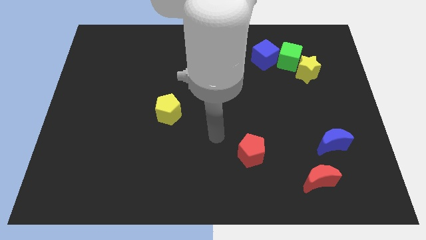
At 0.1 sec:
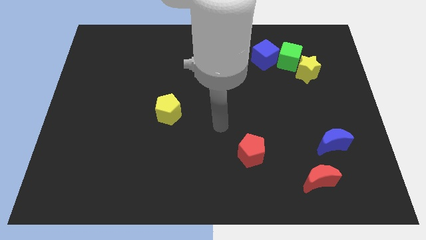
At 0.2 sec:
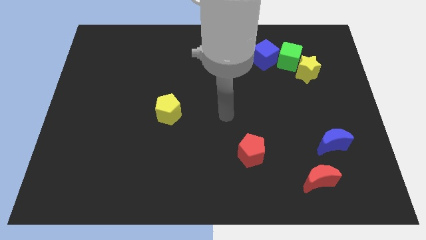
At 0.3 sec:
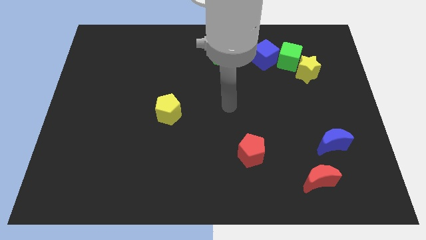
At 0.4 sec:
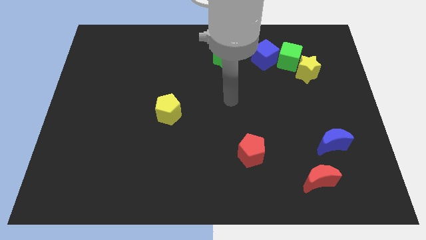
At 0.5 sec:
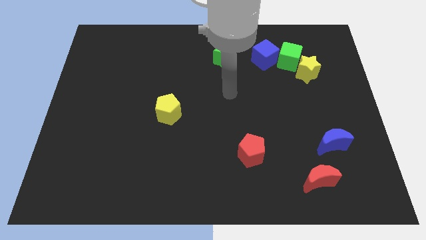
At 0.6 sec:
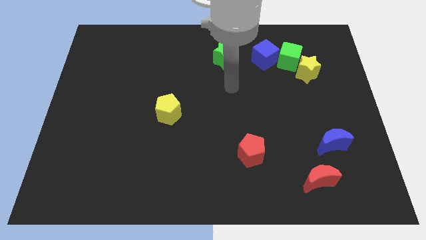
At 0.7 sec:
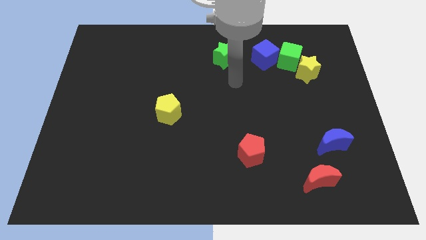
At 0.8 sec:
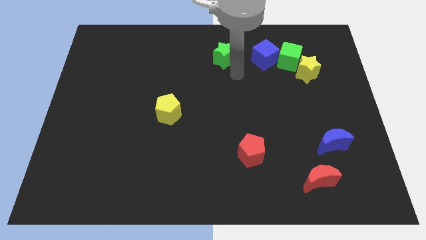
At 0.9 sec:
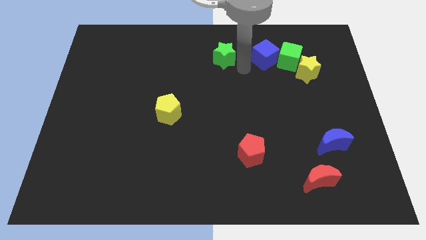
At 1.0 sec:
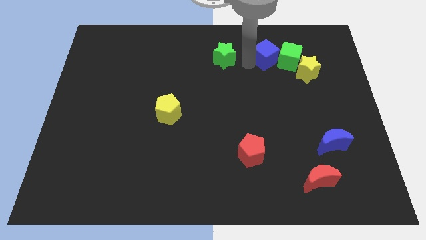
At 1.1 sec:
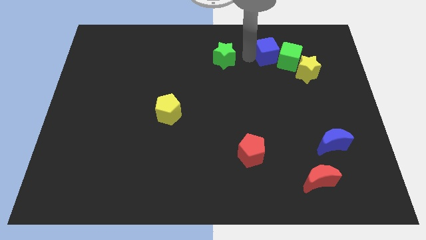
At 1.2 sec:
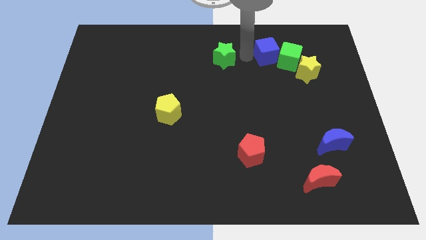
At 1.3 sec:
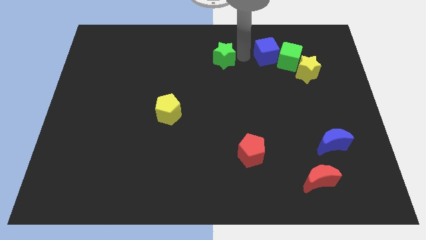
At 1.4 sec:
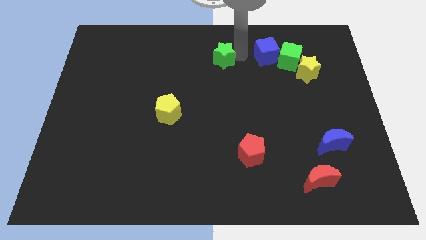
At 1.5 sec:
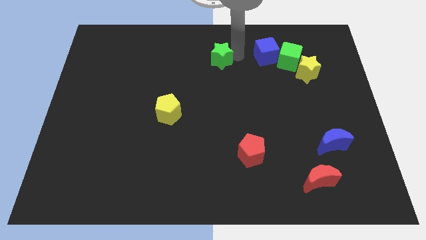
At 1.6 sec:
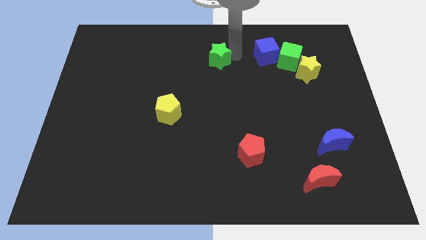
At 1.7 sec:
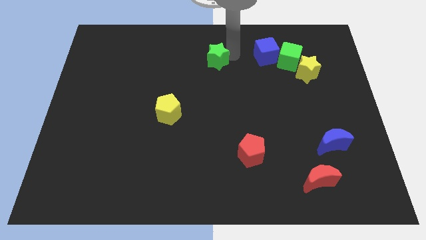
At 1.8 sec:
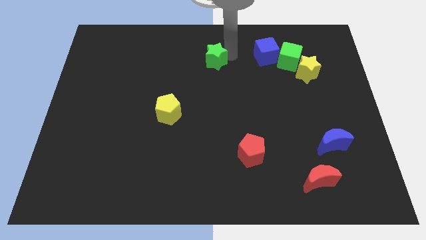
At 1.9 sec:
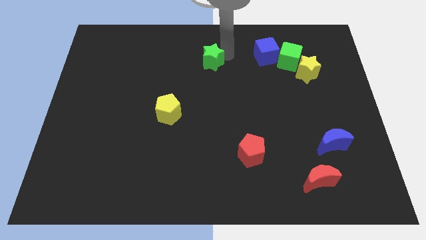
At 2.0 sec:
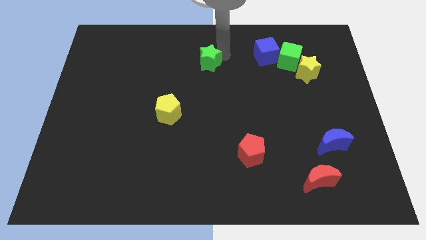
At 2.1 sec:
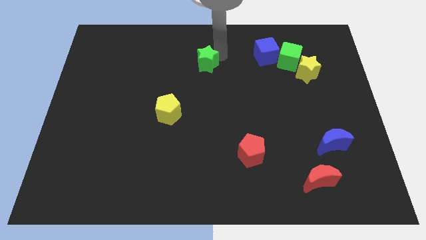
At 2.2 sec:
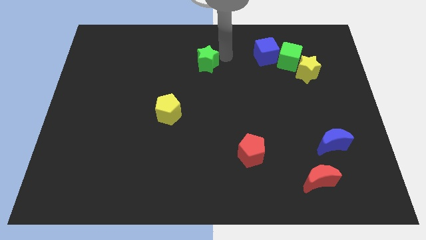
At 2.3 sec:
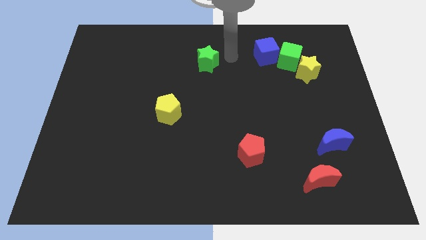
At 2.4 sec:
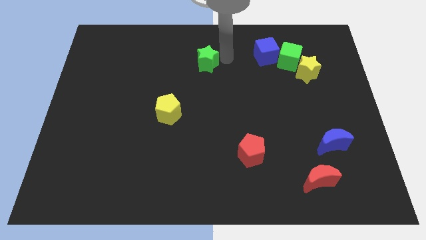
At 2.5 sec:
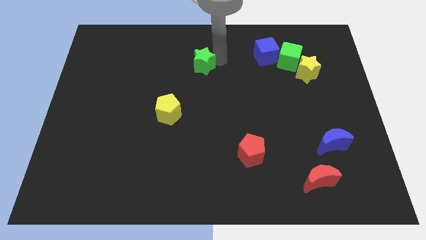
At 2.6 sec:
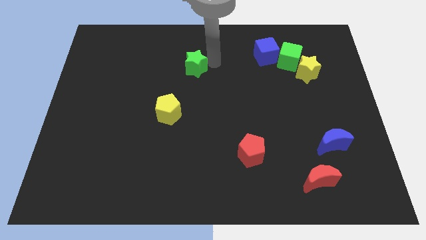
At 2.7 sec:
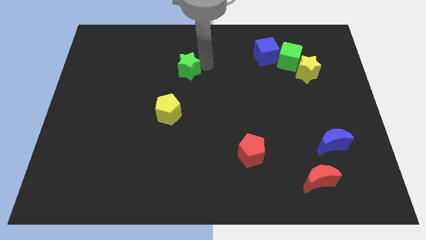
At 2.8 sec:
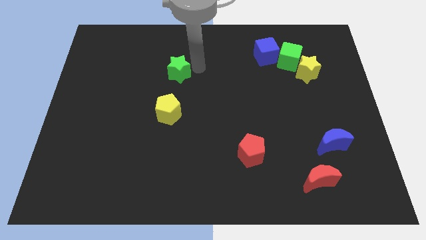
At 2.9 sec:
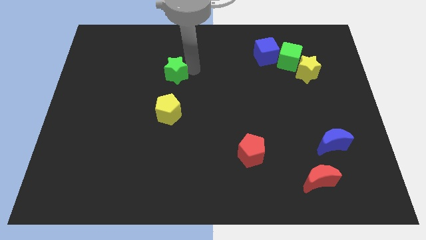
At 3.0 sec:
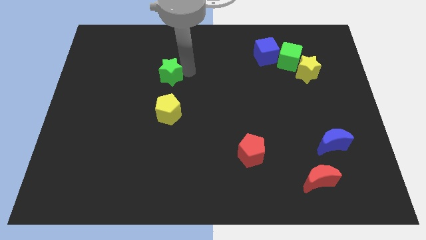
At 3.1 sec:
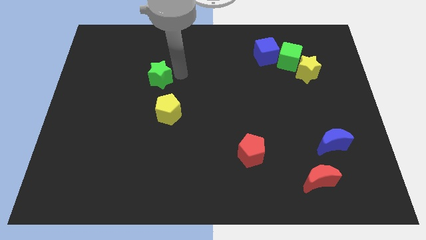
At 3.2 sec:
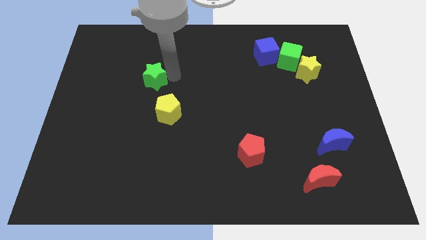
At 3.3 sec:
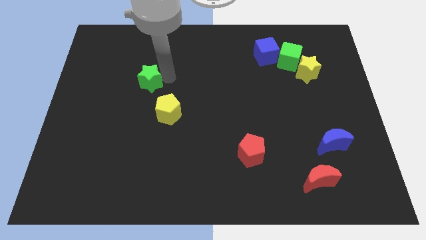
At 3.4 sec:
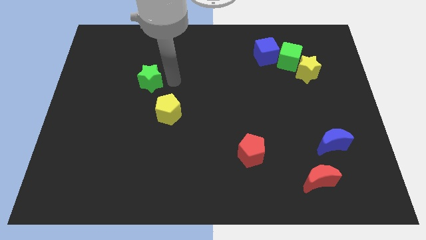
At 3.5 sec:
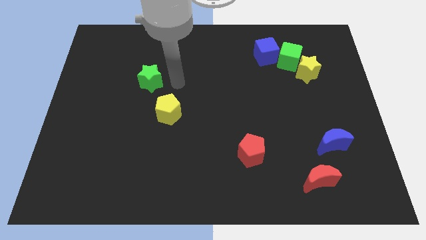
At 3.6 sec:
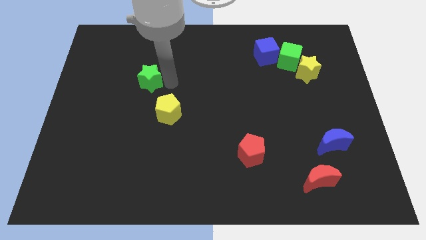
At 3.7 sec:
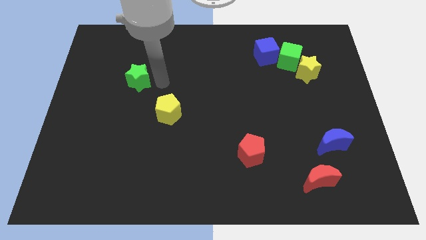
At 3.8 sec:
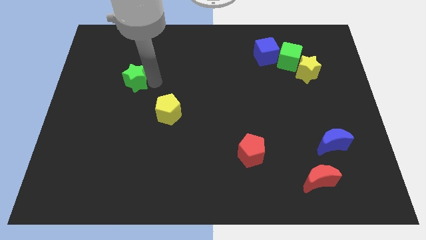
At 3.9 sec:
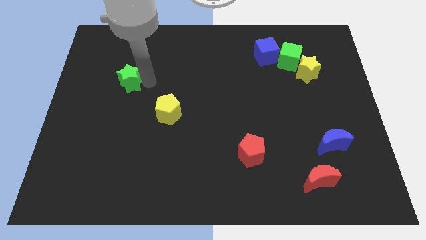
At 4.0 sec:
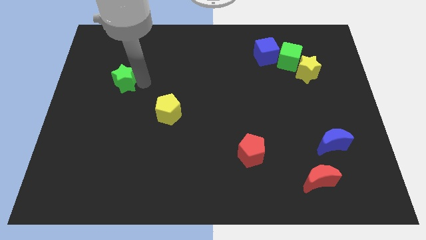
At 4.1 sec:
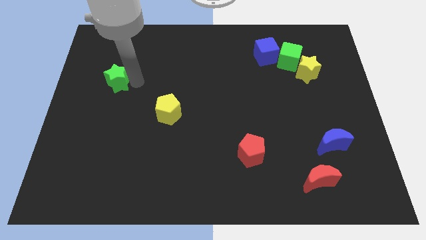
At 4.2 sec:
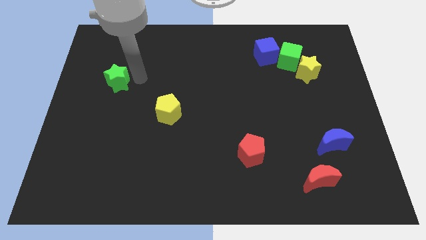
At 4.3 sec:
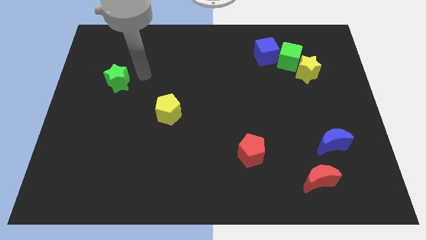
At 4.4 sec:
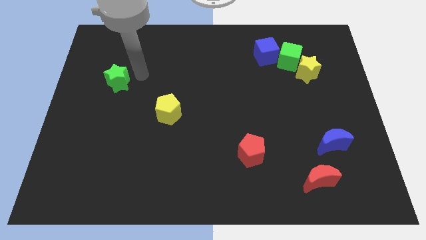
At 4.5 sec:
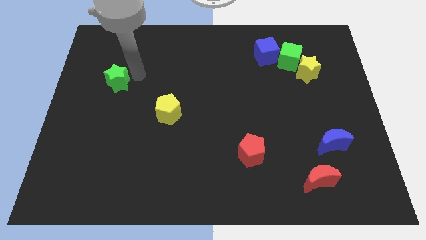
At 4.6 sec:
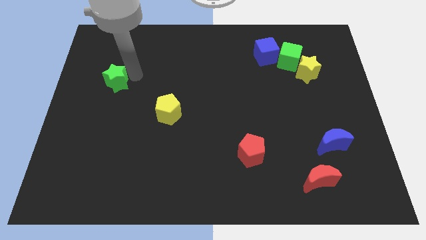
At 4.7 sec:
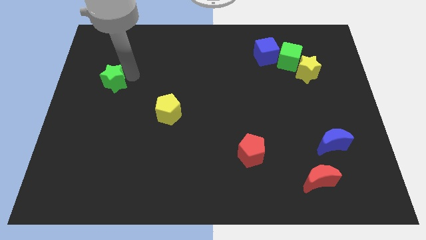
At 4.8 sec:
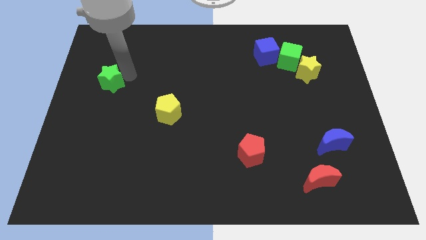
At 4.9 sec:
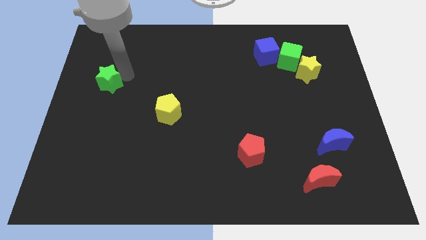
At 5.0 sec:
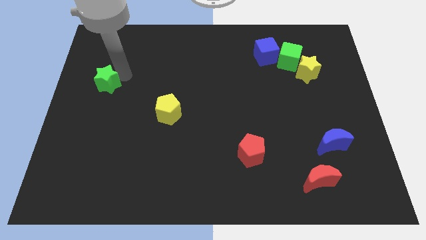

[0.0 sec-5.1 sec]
move the green star to the left side

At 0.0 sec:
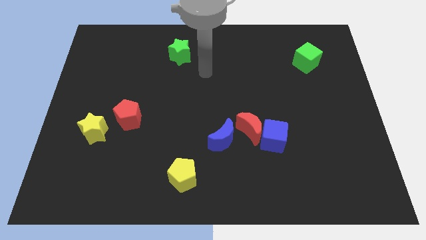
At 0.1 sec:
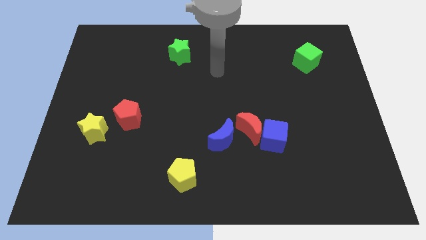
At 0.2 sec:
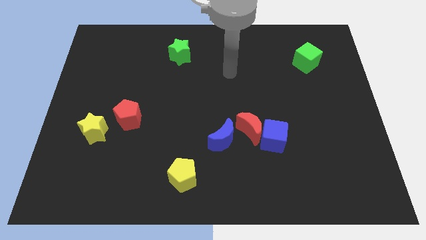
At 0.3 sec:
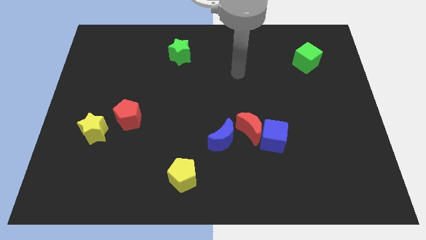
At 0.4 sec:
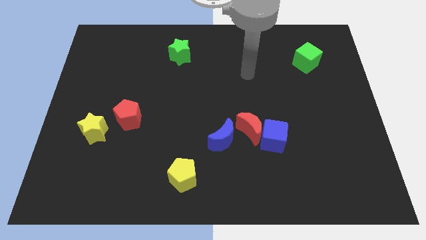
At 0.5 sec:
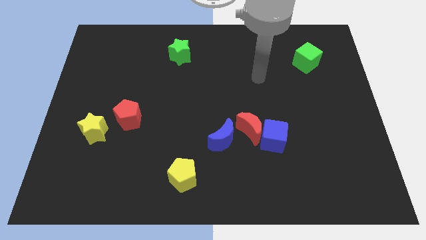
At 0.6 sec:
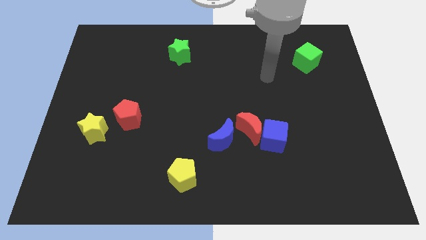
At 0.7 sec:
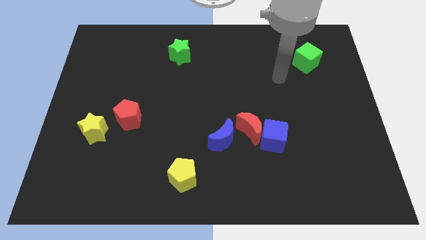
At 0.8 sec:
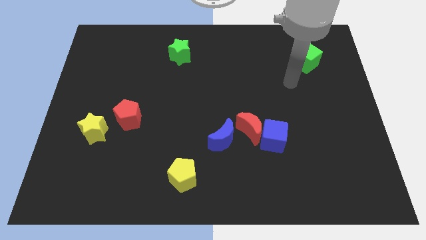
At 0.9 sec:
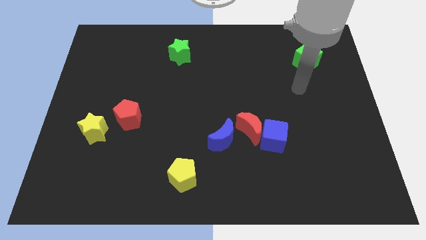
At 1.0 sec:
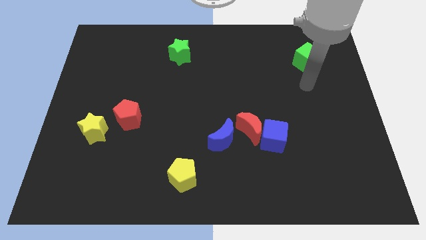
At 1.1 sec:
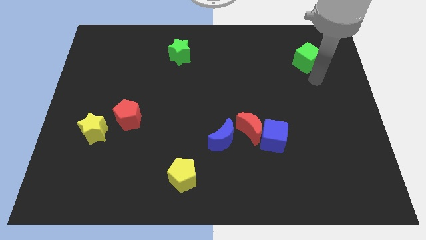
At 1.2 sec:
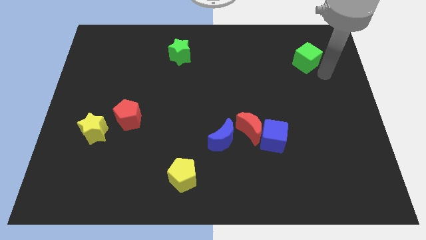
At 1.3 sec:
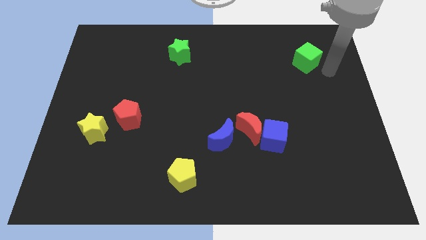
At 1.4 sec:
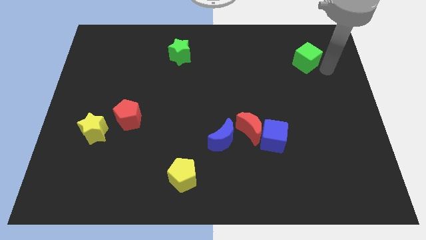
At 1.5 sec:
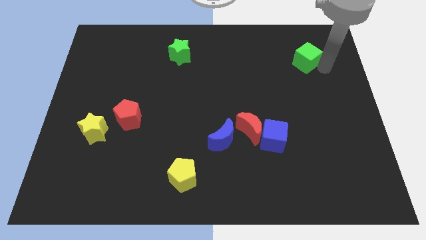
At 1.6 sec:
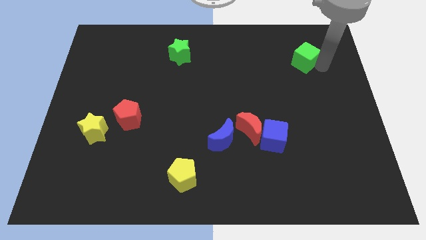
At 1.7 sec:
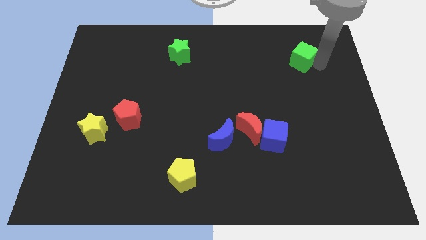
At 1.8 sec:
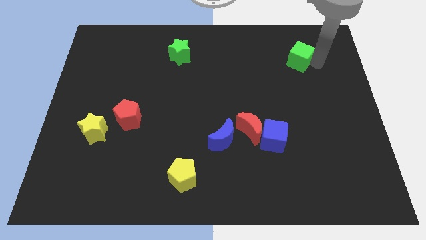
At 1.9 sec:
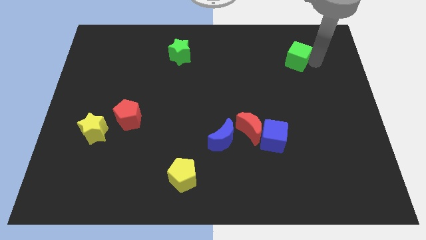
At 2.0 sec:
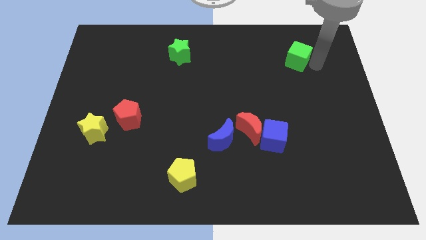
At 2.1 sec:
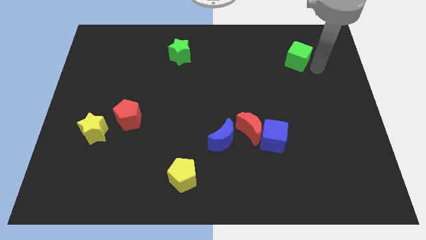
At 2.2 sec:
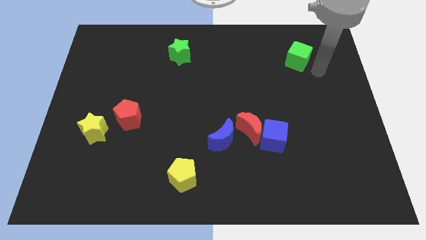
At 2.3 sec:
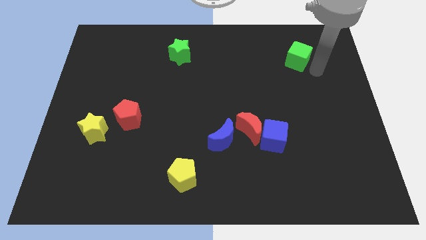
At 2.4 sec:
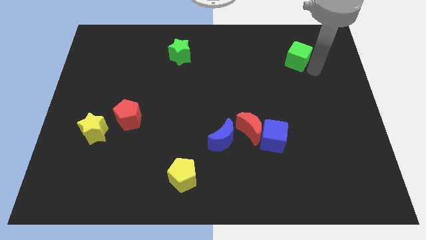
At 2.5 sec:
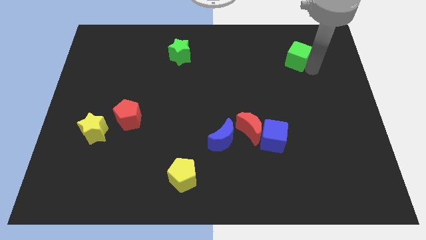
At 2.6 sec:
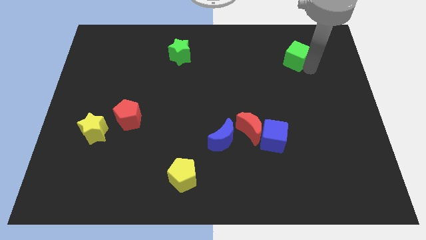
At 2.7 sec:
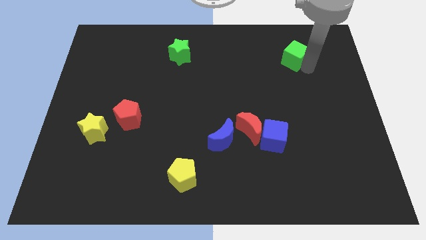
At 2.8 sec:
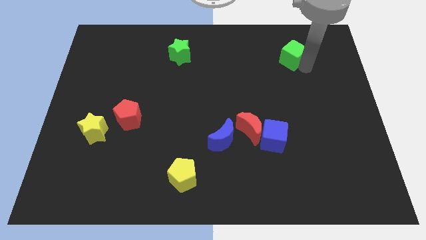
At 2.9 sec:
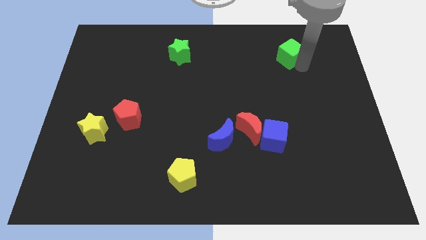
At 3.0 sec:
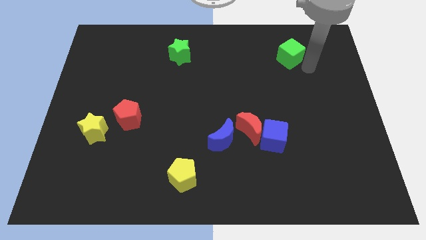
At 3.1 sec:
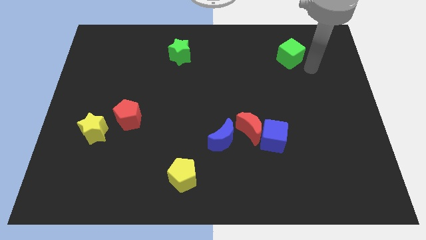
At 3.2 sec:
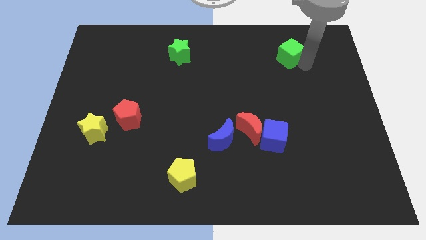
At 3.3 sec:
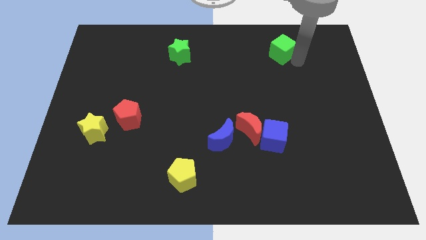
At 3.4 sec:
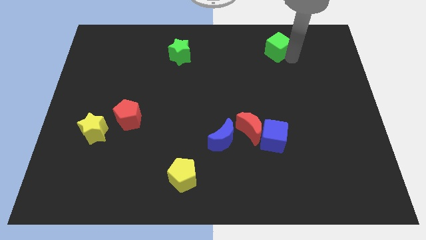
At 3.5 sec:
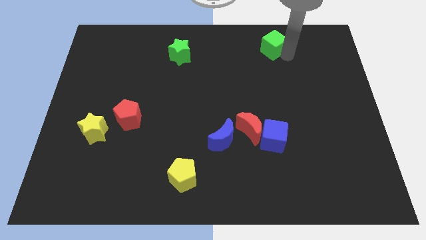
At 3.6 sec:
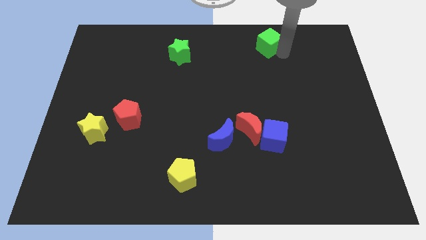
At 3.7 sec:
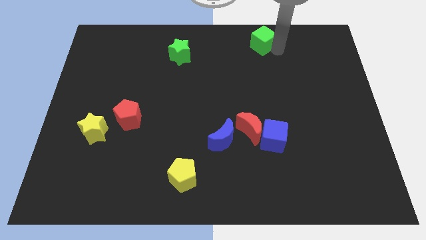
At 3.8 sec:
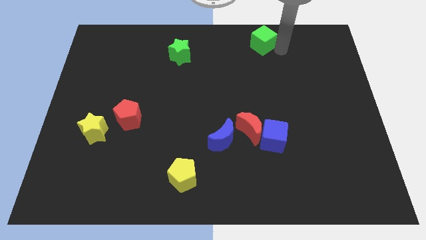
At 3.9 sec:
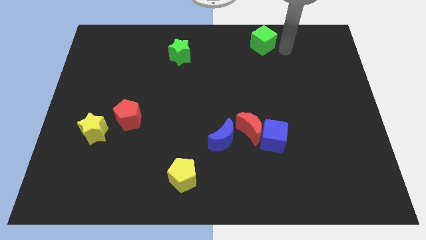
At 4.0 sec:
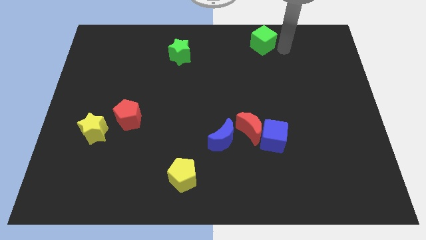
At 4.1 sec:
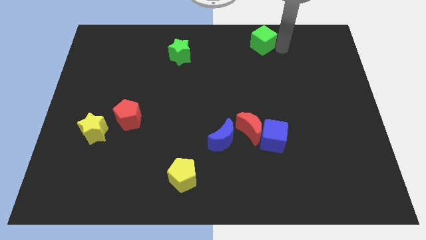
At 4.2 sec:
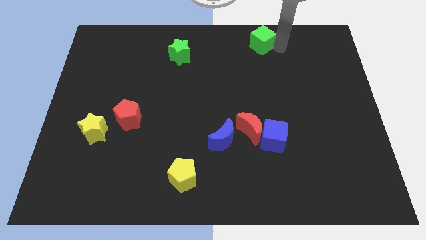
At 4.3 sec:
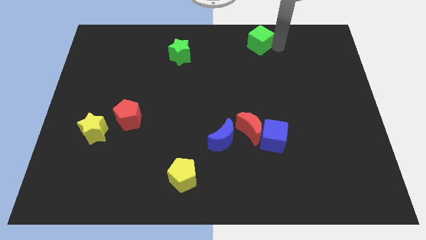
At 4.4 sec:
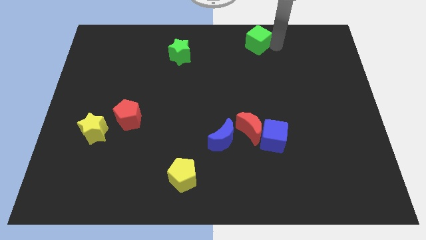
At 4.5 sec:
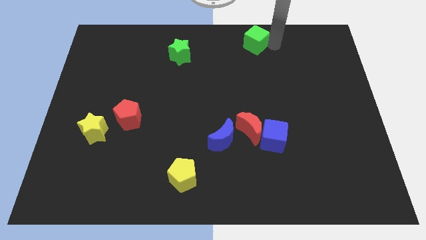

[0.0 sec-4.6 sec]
slide the green cube to the top side
